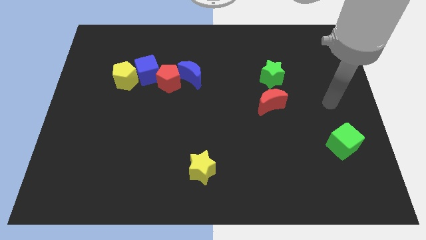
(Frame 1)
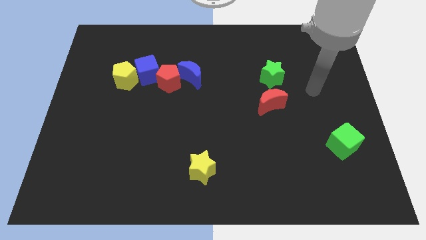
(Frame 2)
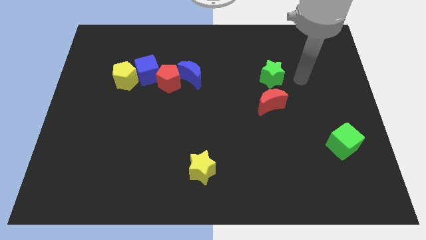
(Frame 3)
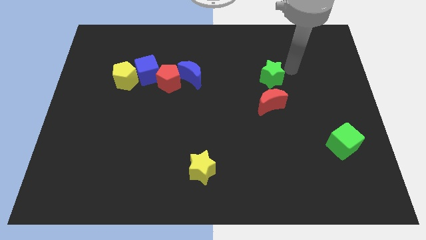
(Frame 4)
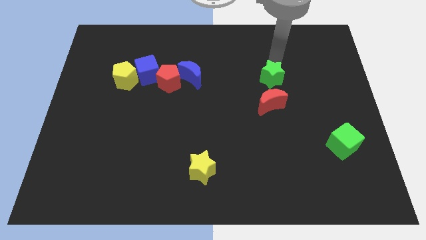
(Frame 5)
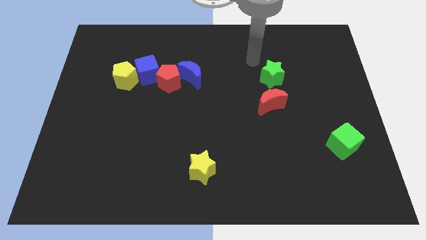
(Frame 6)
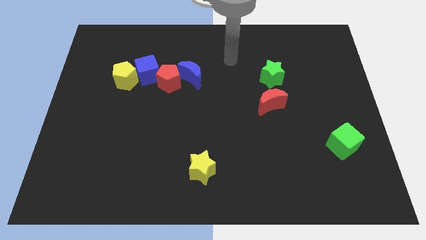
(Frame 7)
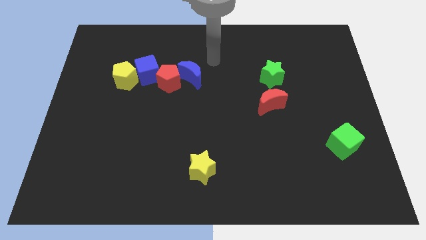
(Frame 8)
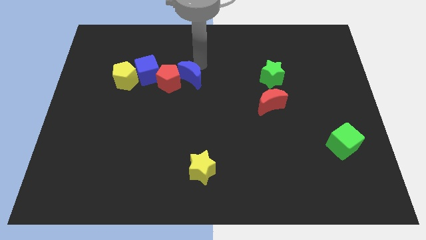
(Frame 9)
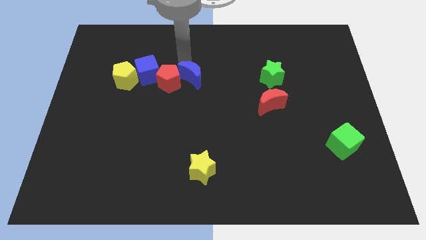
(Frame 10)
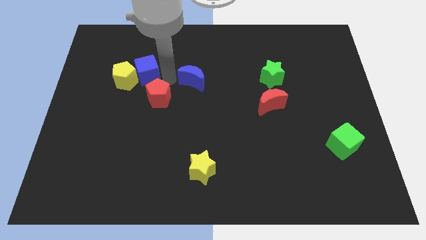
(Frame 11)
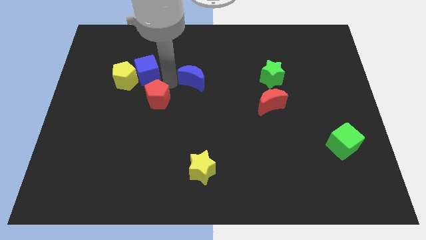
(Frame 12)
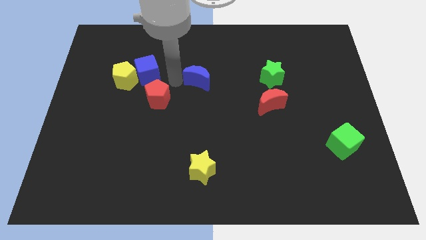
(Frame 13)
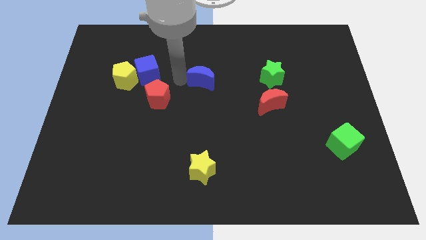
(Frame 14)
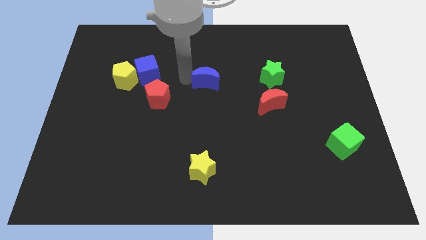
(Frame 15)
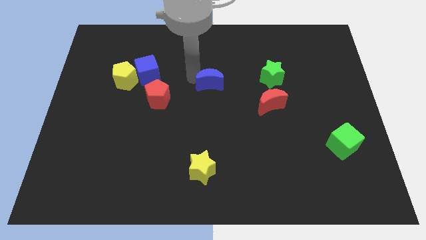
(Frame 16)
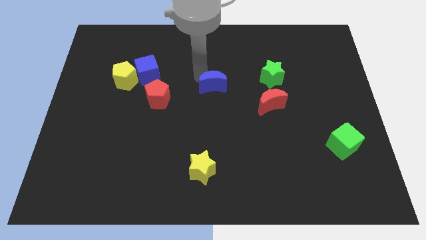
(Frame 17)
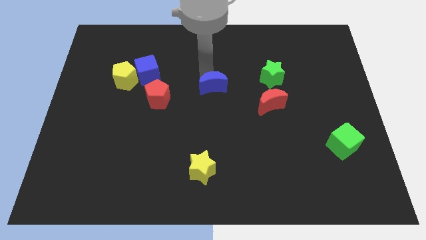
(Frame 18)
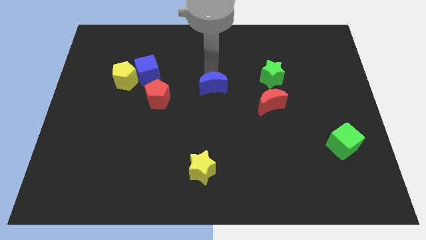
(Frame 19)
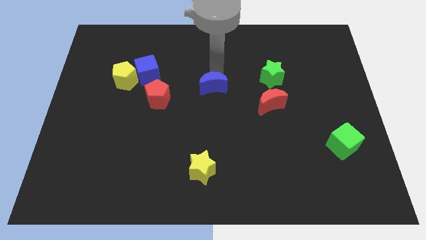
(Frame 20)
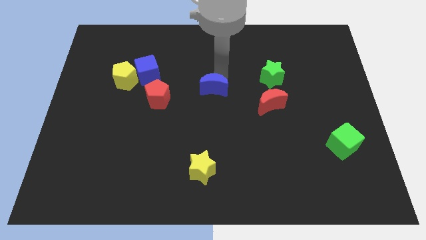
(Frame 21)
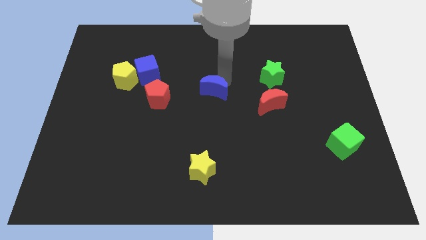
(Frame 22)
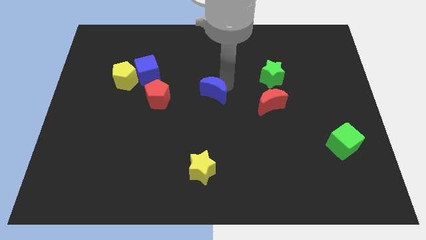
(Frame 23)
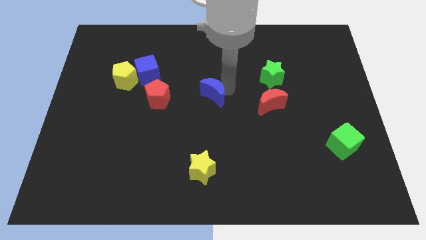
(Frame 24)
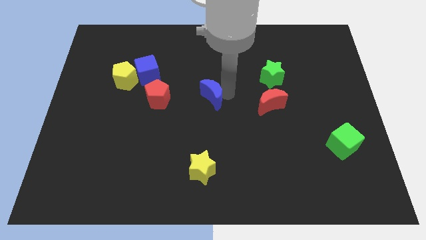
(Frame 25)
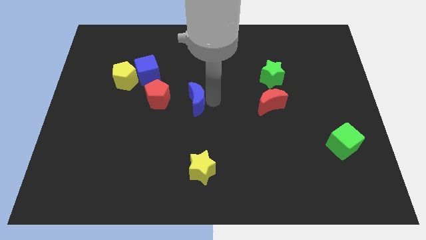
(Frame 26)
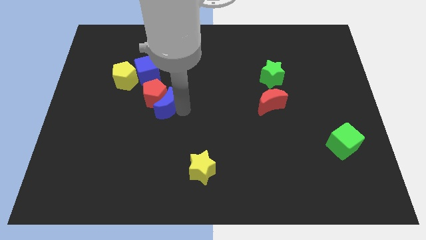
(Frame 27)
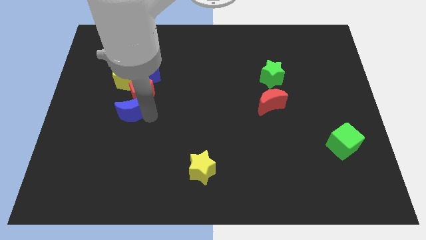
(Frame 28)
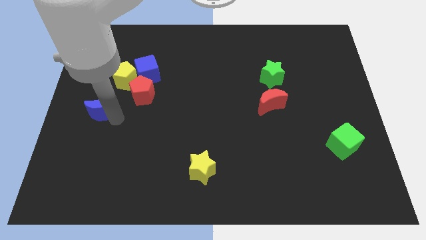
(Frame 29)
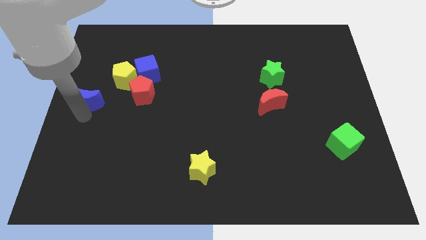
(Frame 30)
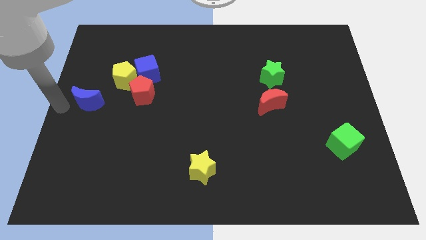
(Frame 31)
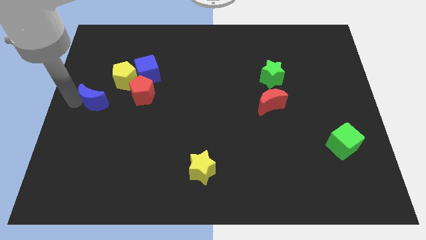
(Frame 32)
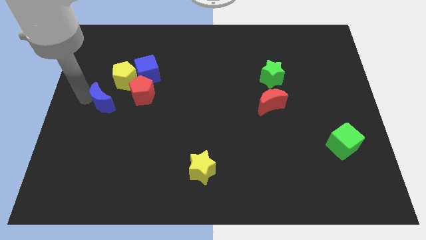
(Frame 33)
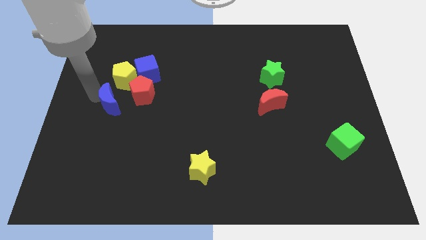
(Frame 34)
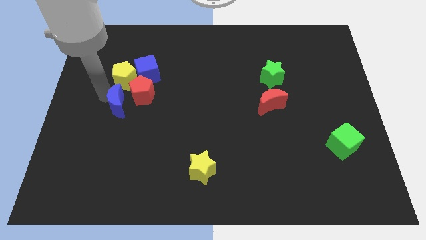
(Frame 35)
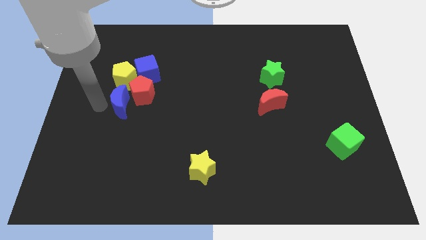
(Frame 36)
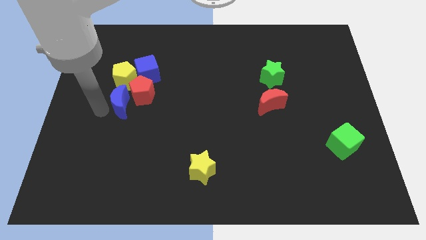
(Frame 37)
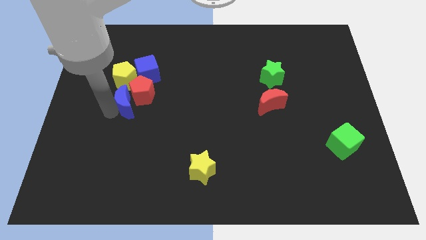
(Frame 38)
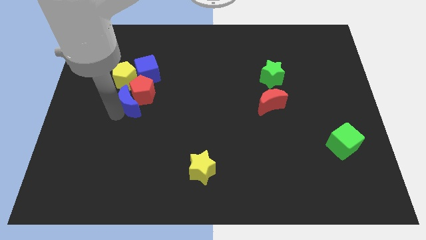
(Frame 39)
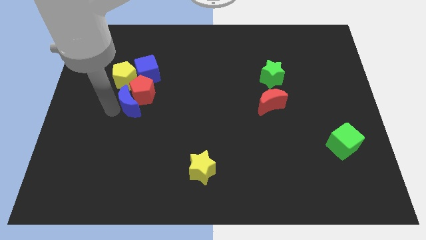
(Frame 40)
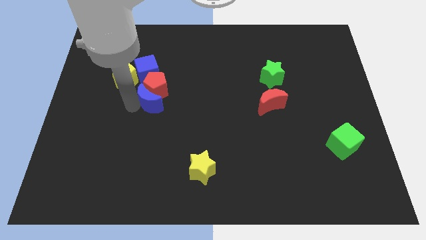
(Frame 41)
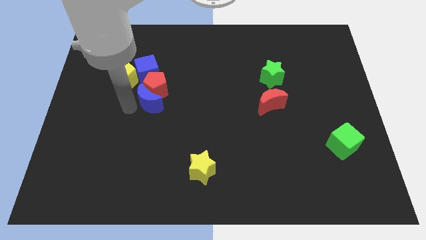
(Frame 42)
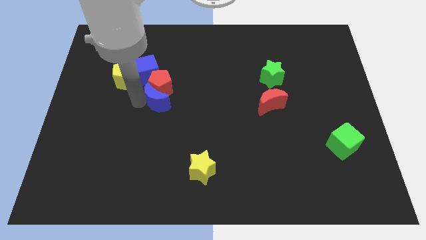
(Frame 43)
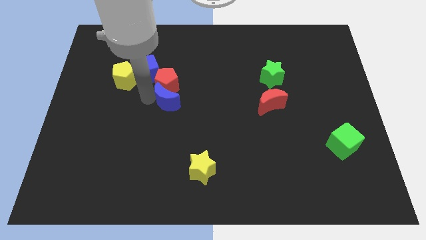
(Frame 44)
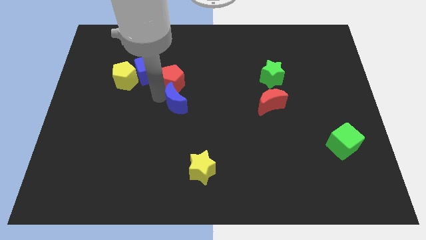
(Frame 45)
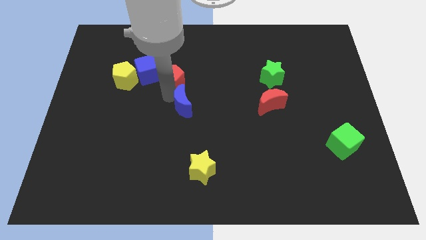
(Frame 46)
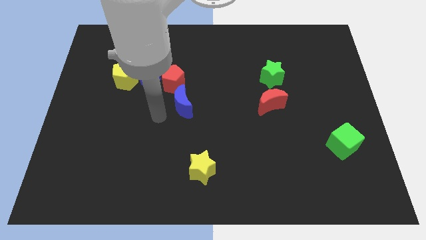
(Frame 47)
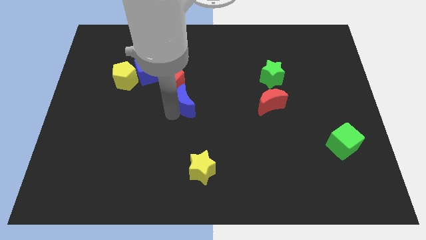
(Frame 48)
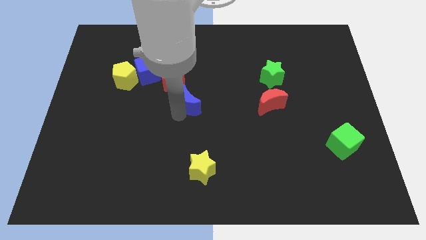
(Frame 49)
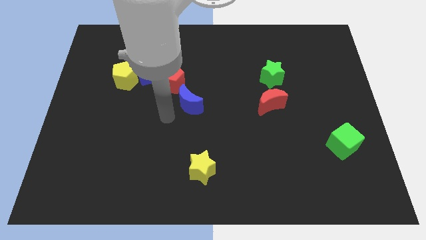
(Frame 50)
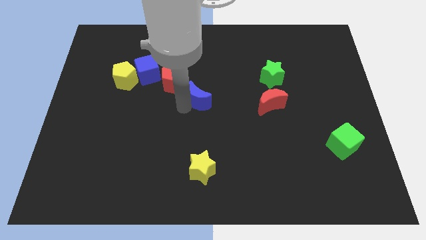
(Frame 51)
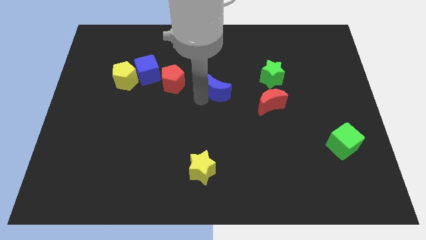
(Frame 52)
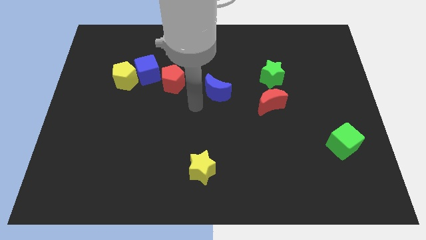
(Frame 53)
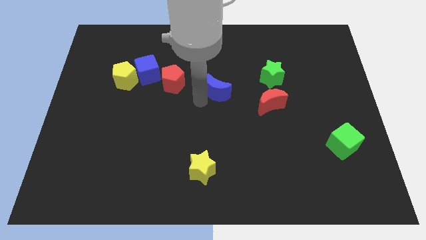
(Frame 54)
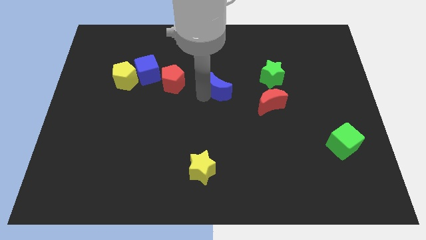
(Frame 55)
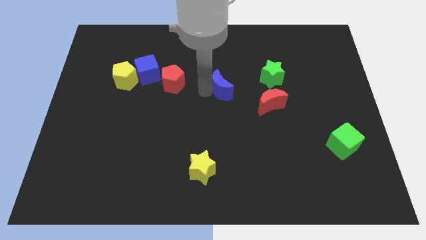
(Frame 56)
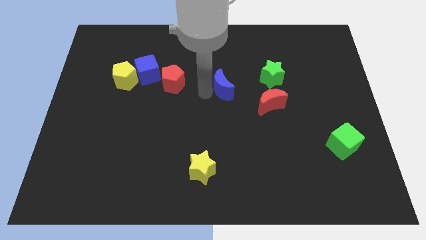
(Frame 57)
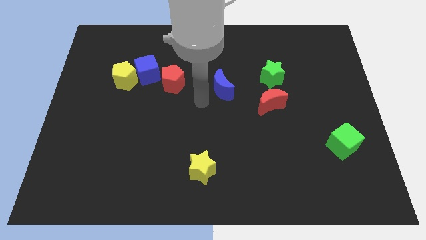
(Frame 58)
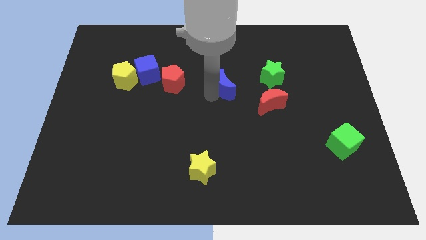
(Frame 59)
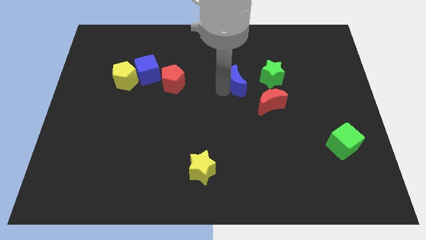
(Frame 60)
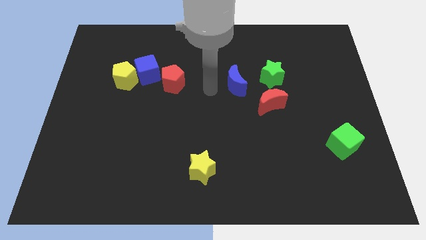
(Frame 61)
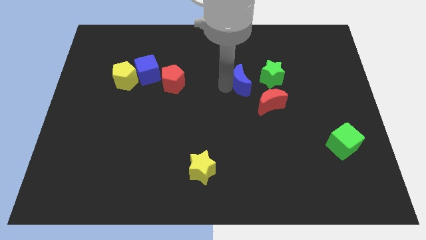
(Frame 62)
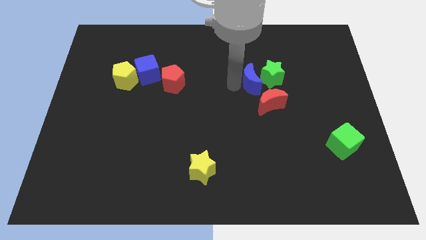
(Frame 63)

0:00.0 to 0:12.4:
push the blue moon towards the green star

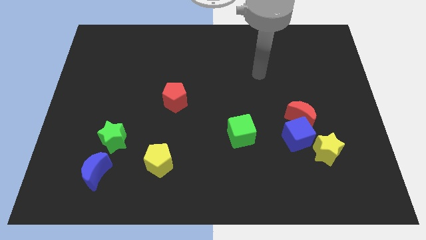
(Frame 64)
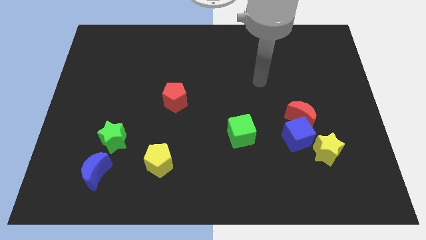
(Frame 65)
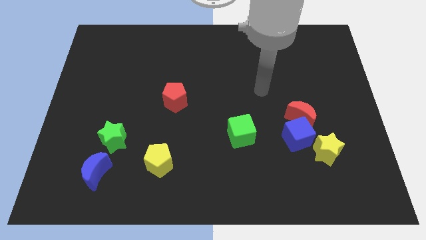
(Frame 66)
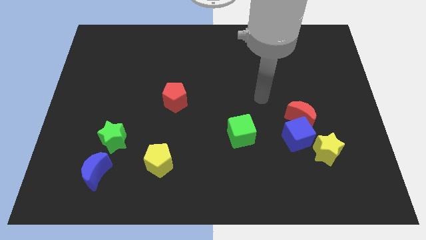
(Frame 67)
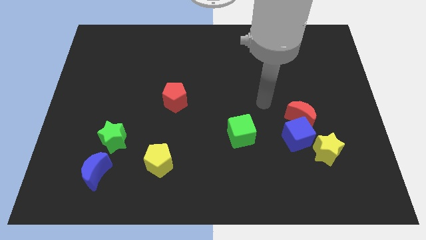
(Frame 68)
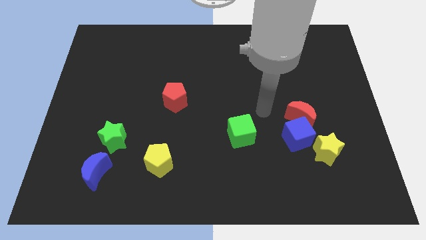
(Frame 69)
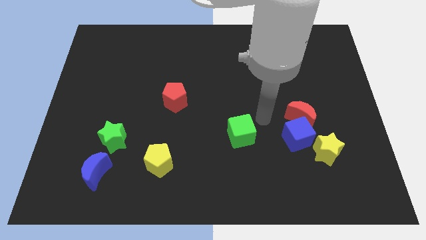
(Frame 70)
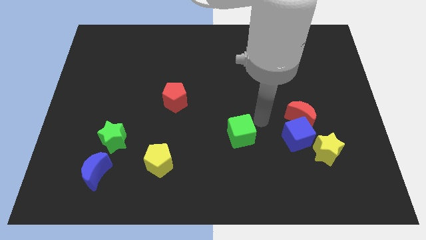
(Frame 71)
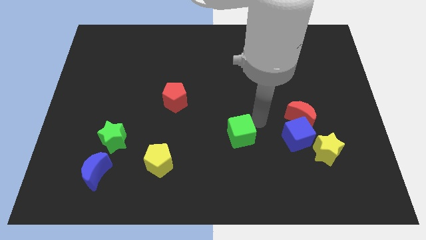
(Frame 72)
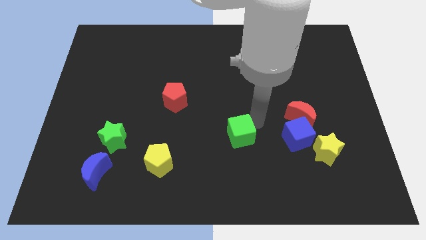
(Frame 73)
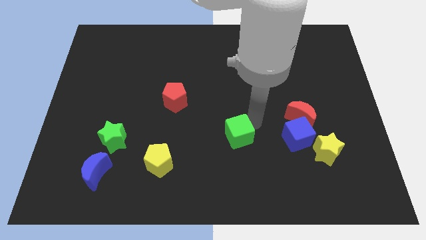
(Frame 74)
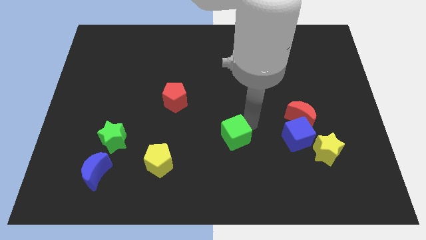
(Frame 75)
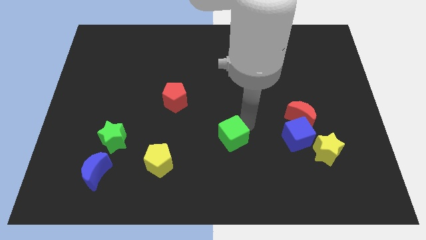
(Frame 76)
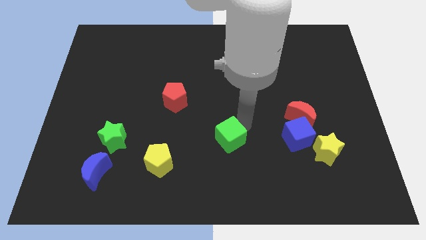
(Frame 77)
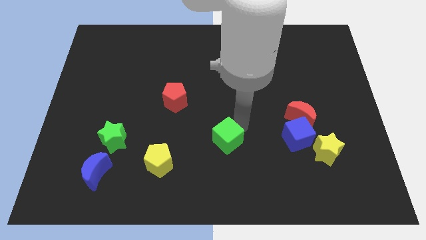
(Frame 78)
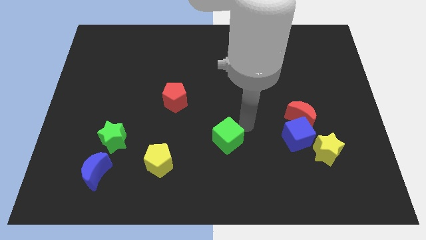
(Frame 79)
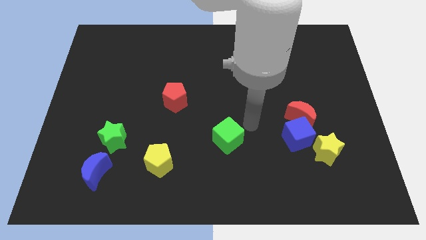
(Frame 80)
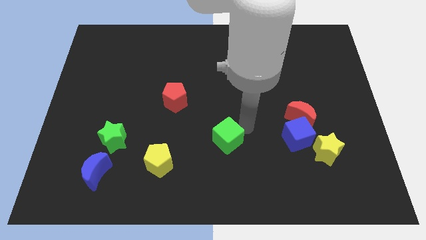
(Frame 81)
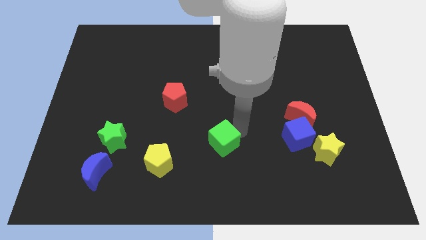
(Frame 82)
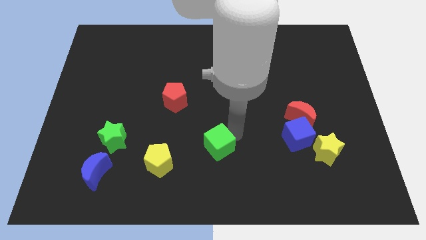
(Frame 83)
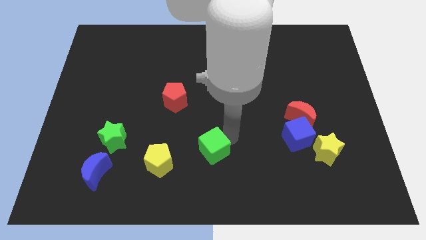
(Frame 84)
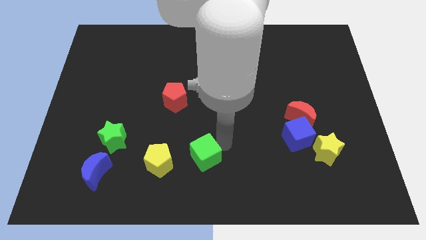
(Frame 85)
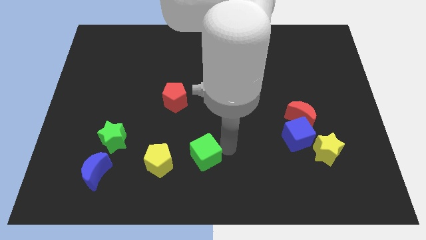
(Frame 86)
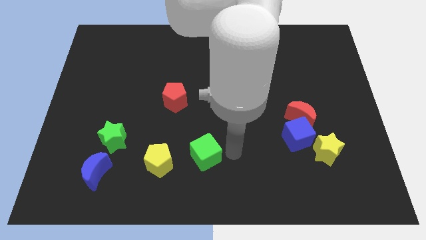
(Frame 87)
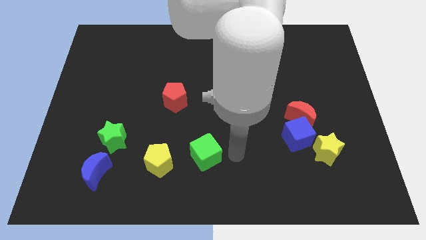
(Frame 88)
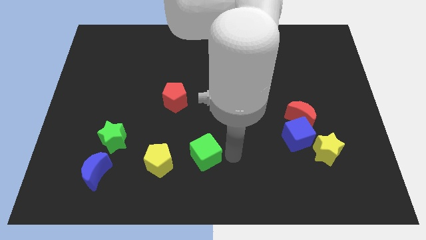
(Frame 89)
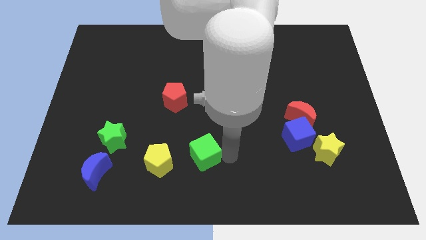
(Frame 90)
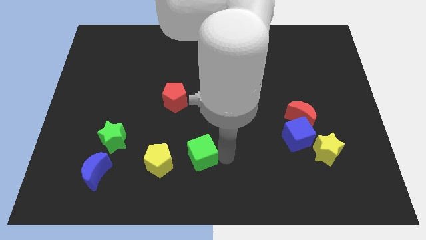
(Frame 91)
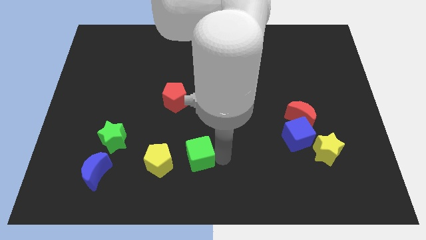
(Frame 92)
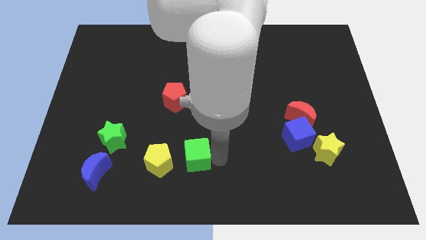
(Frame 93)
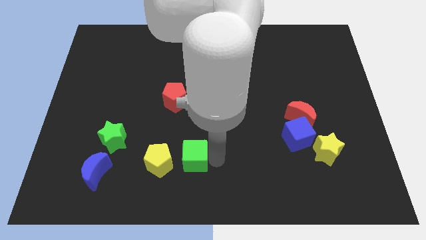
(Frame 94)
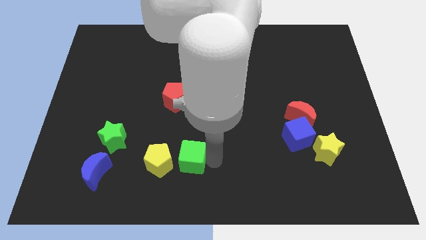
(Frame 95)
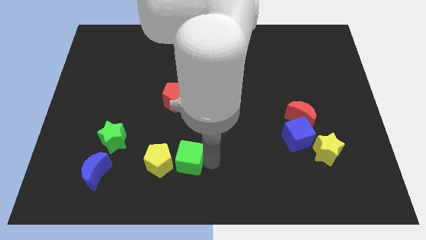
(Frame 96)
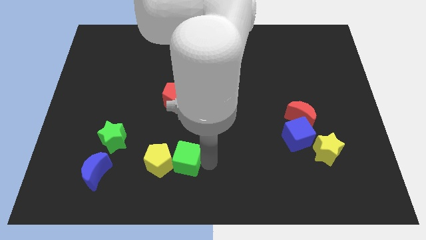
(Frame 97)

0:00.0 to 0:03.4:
slide the green cube close to the yellow pentagon
